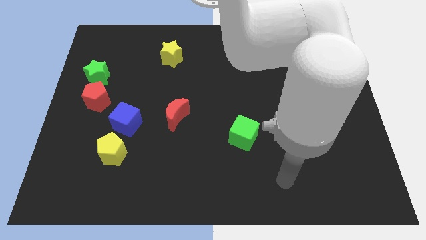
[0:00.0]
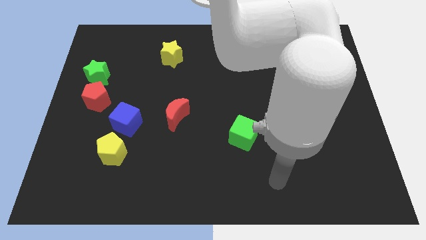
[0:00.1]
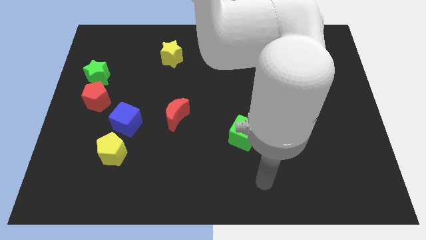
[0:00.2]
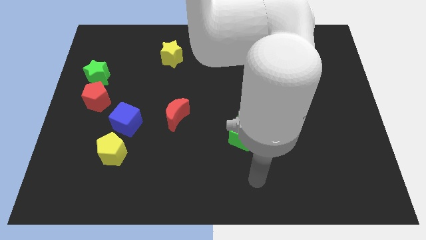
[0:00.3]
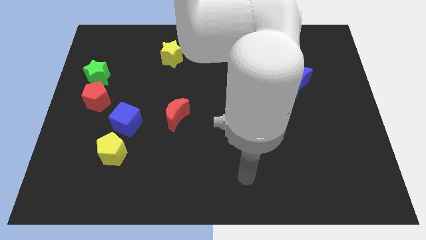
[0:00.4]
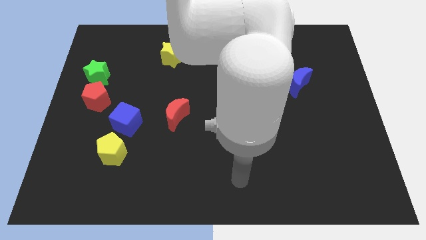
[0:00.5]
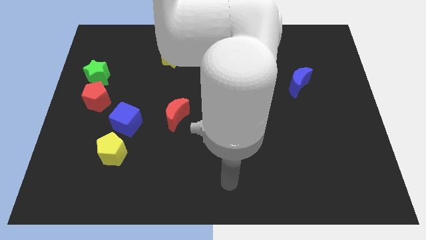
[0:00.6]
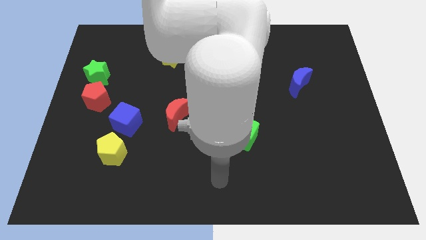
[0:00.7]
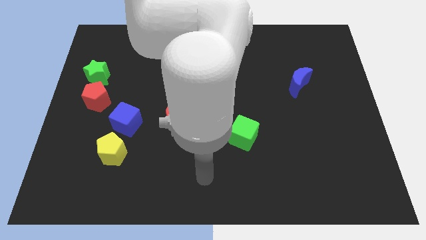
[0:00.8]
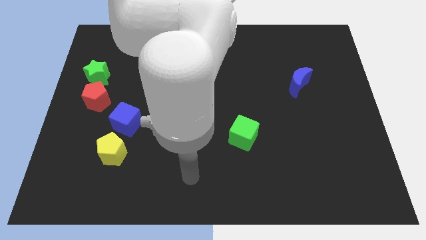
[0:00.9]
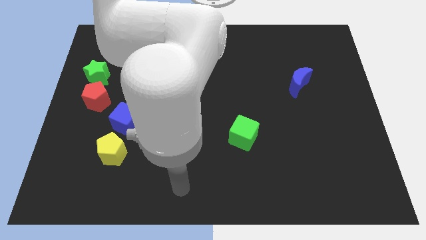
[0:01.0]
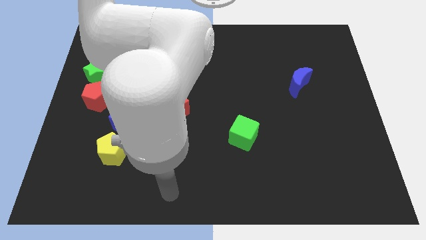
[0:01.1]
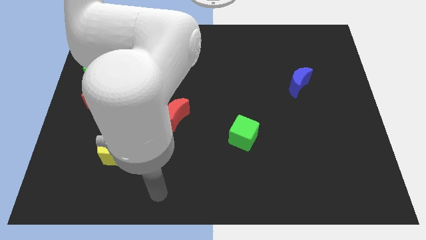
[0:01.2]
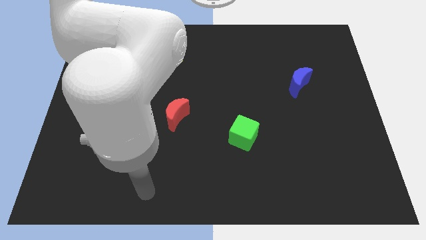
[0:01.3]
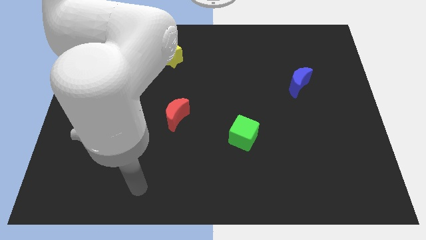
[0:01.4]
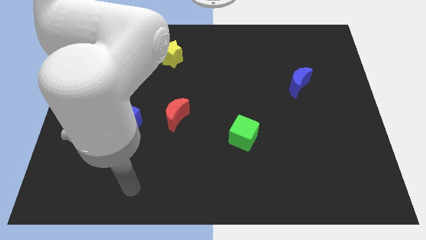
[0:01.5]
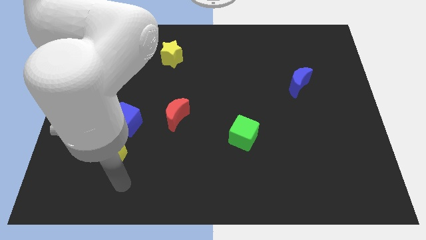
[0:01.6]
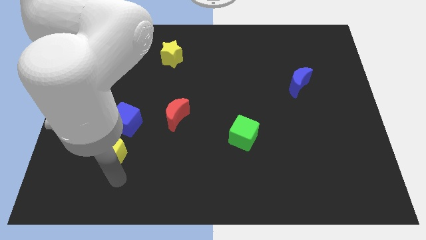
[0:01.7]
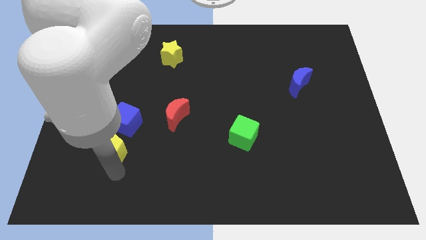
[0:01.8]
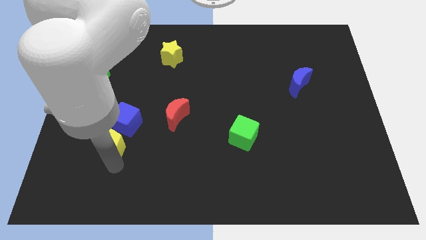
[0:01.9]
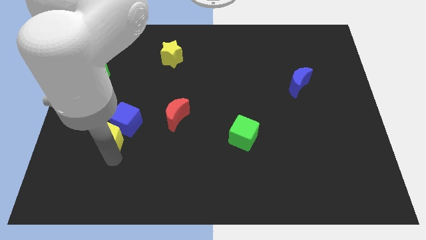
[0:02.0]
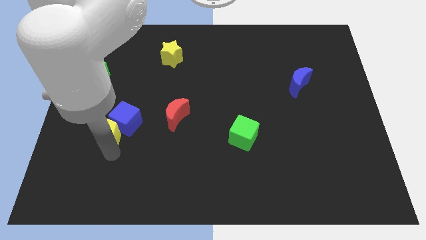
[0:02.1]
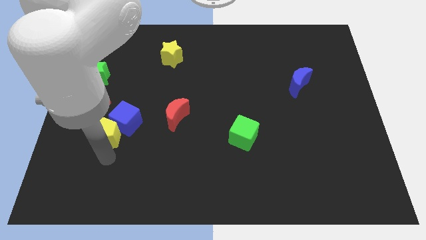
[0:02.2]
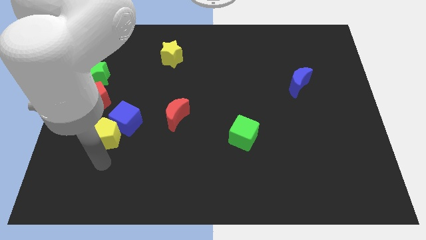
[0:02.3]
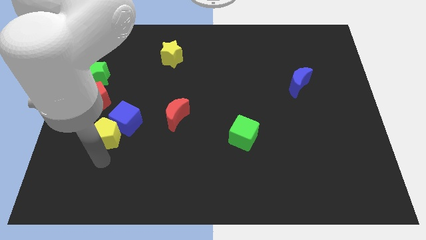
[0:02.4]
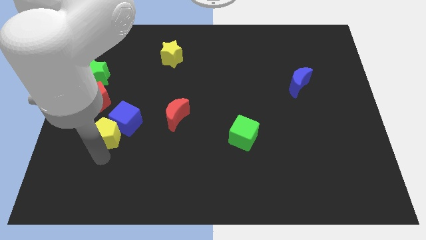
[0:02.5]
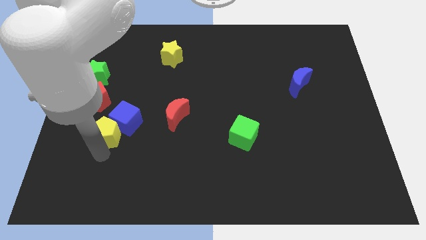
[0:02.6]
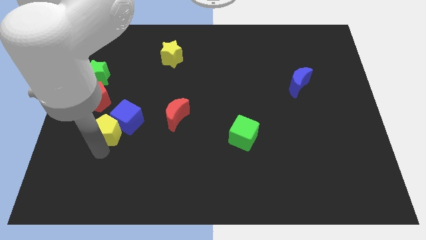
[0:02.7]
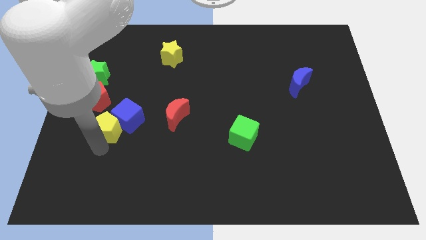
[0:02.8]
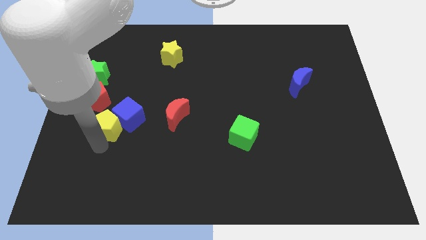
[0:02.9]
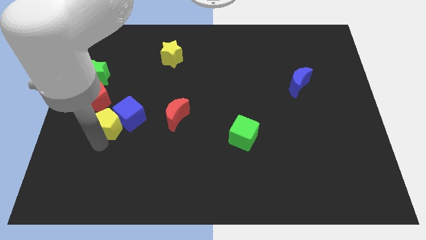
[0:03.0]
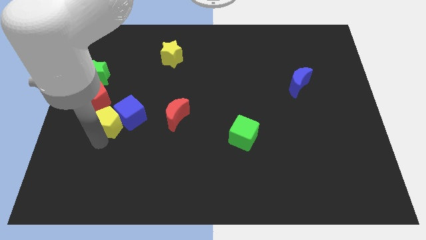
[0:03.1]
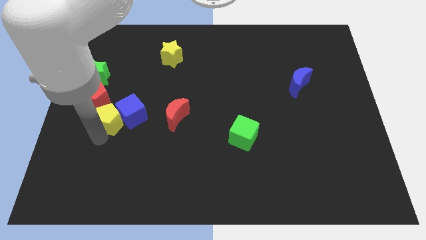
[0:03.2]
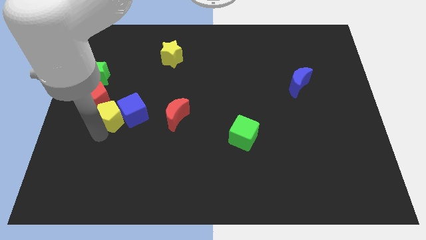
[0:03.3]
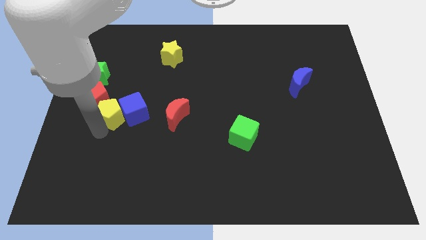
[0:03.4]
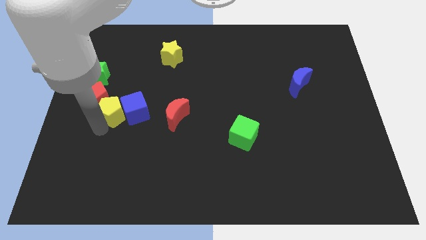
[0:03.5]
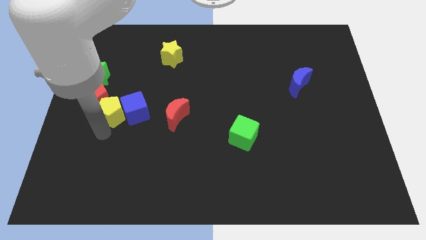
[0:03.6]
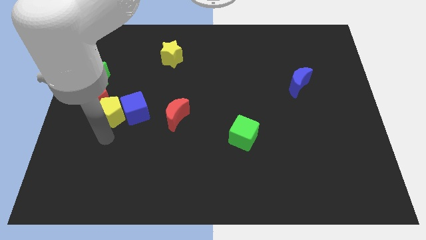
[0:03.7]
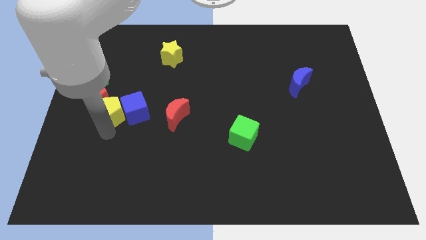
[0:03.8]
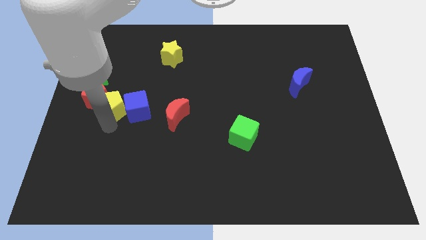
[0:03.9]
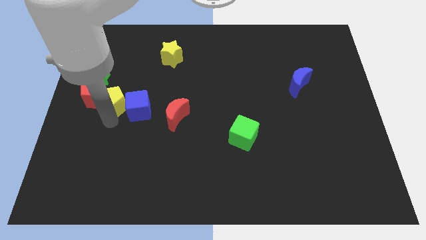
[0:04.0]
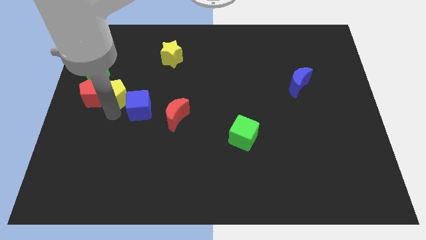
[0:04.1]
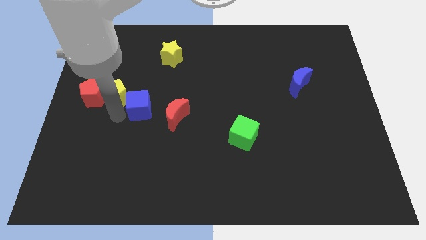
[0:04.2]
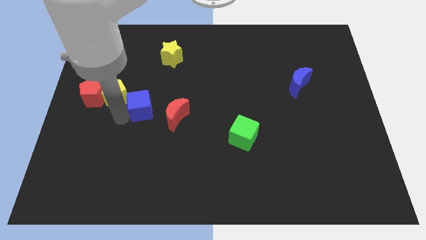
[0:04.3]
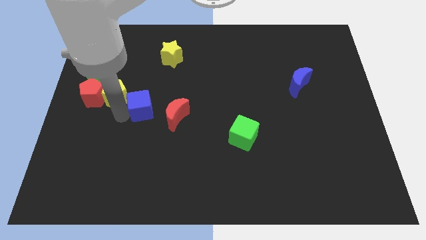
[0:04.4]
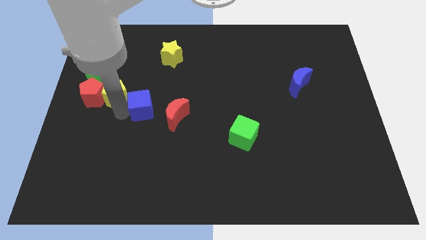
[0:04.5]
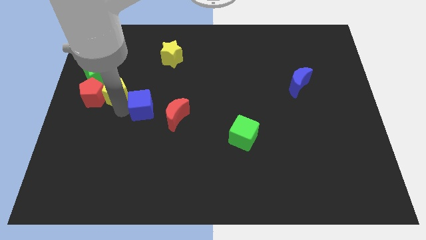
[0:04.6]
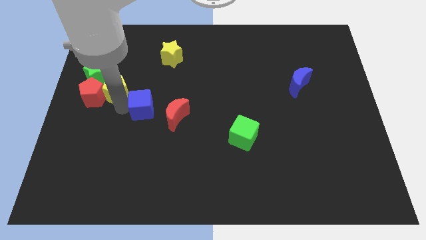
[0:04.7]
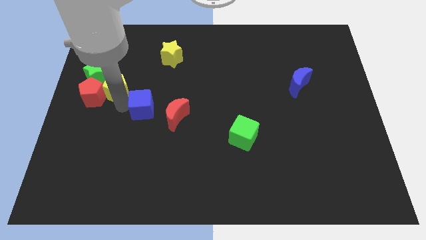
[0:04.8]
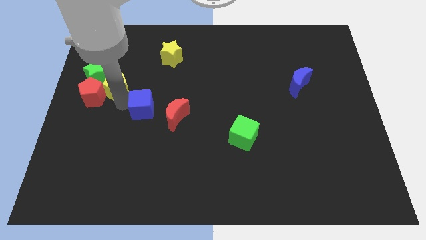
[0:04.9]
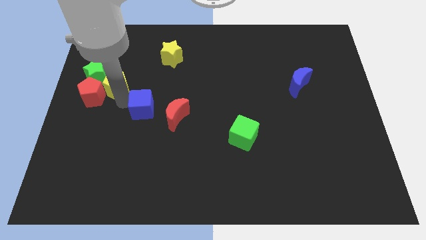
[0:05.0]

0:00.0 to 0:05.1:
slide the yellow pentagon to the green star

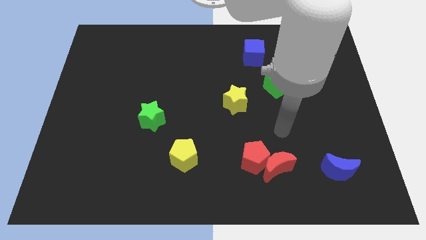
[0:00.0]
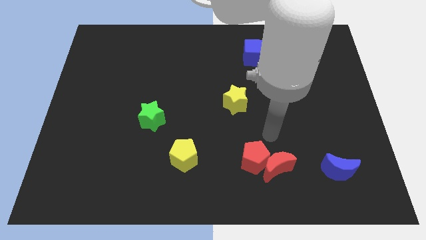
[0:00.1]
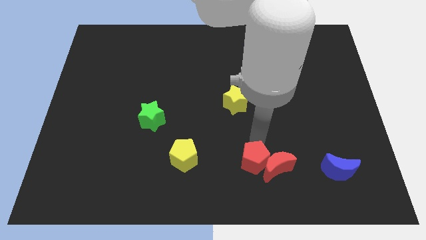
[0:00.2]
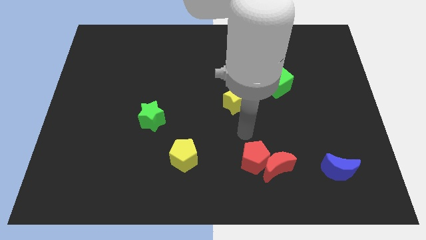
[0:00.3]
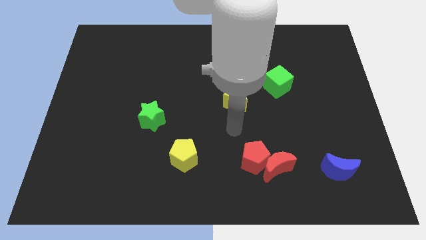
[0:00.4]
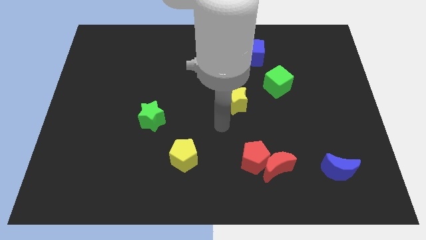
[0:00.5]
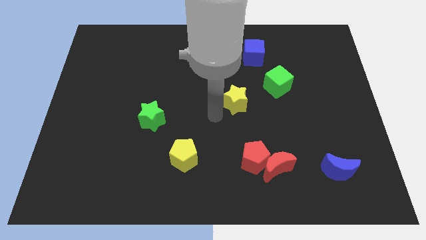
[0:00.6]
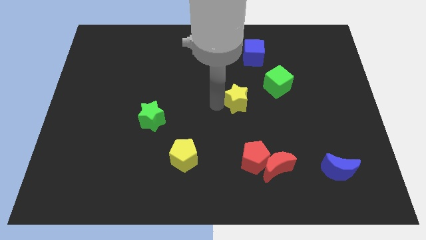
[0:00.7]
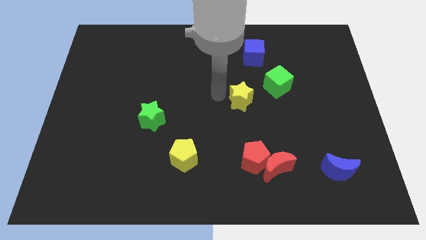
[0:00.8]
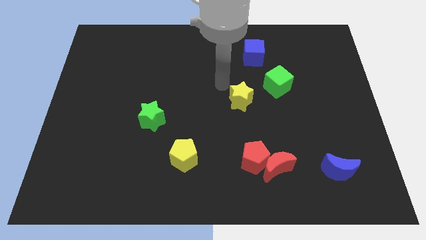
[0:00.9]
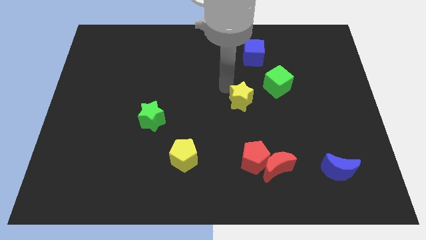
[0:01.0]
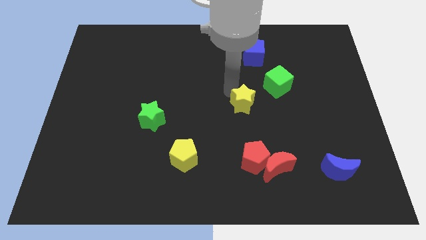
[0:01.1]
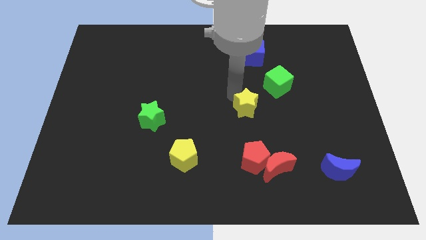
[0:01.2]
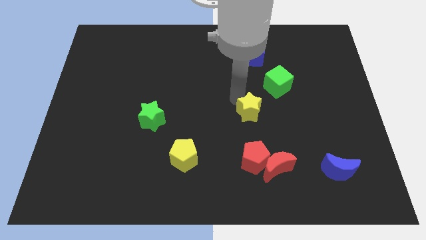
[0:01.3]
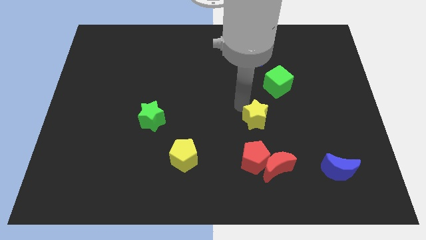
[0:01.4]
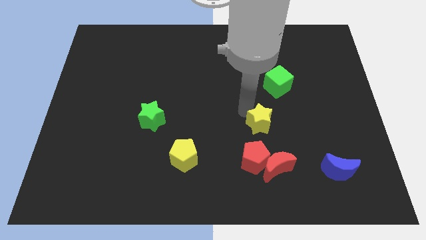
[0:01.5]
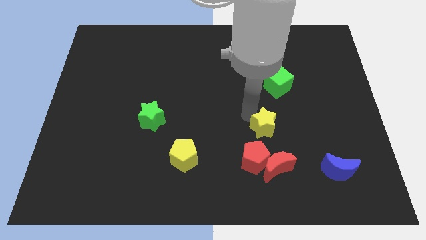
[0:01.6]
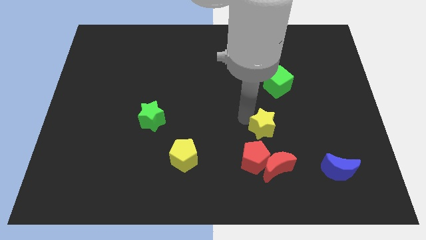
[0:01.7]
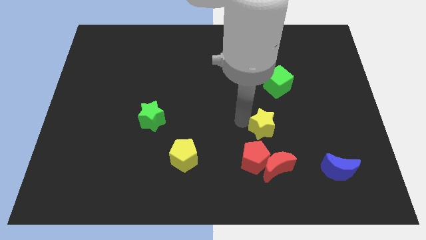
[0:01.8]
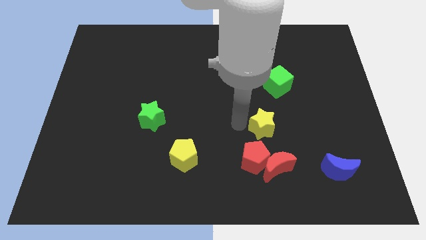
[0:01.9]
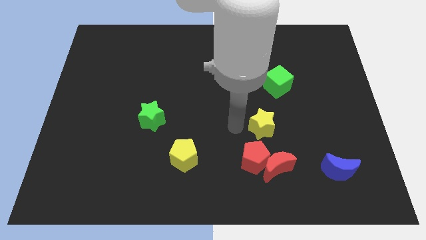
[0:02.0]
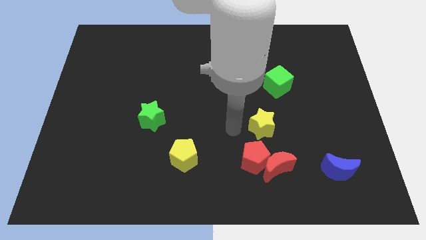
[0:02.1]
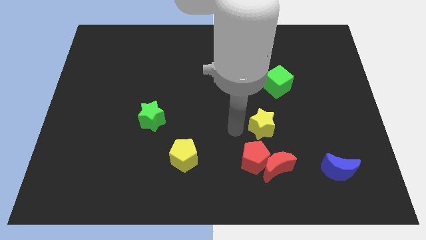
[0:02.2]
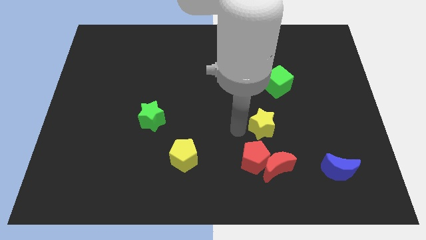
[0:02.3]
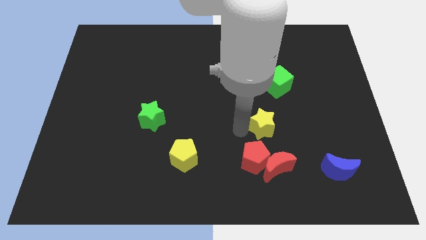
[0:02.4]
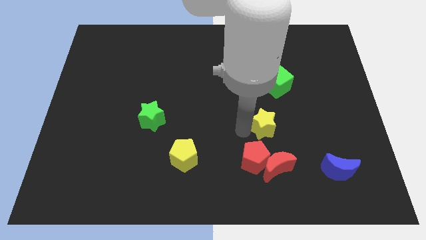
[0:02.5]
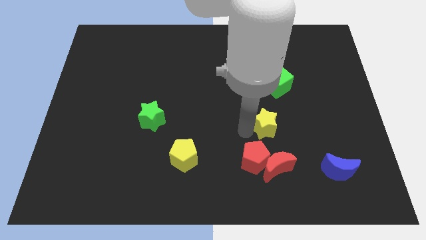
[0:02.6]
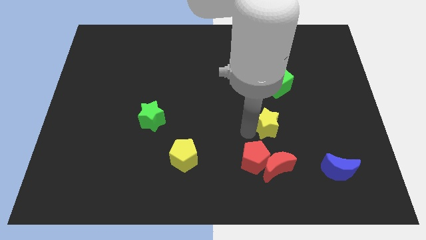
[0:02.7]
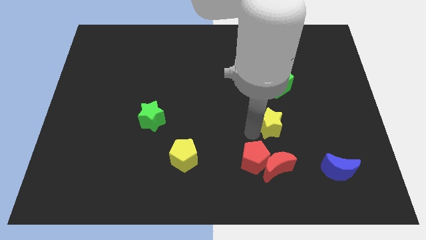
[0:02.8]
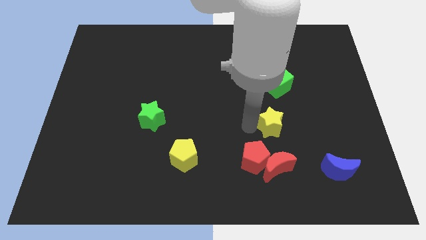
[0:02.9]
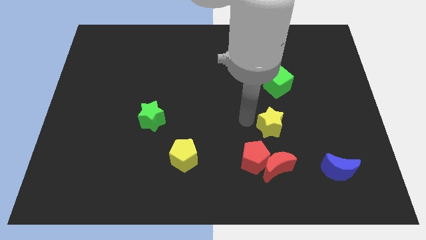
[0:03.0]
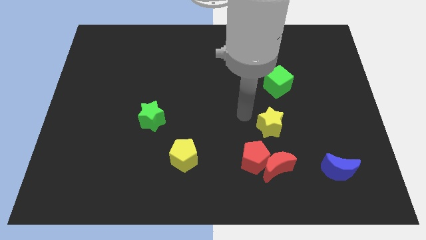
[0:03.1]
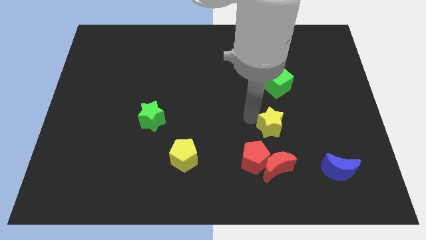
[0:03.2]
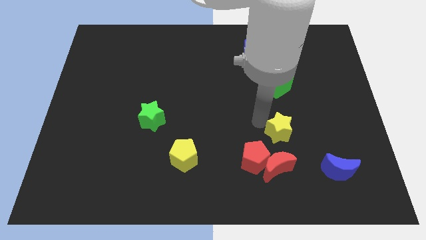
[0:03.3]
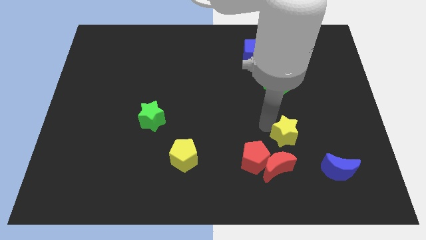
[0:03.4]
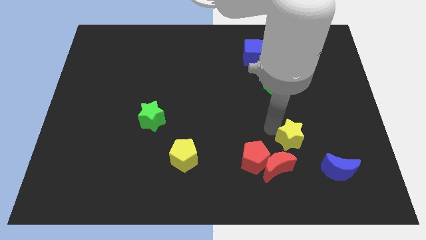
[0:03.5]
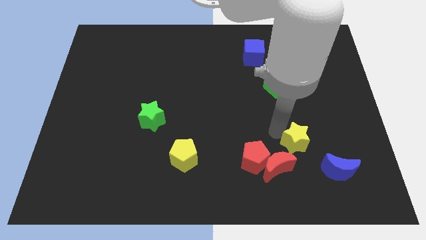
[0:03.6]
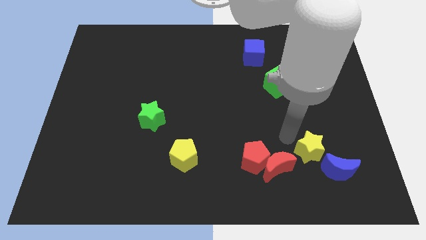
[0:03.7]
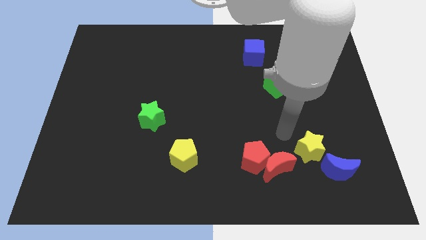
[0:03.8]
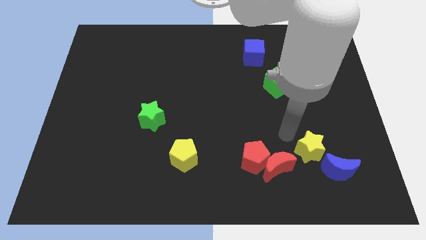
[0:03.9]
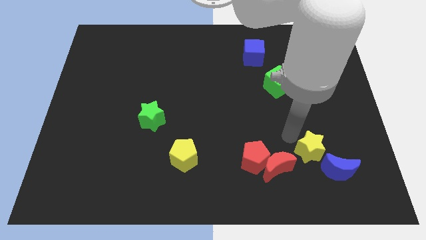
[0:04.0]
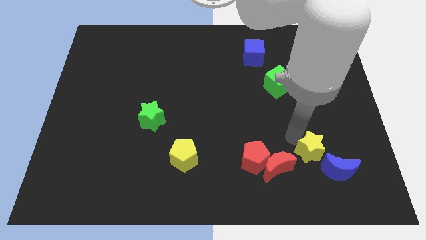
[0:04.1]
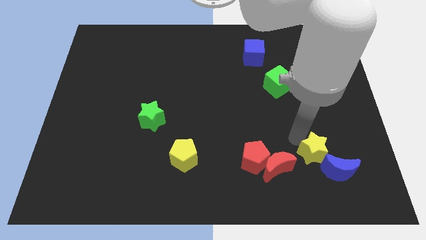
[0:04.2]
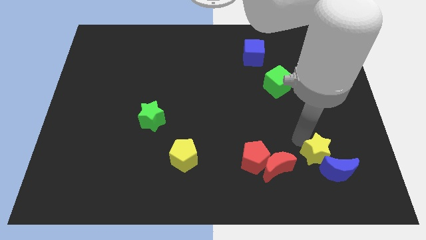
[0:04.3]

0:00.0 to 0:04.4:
push the yellow star next to the blue moon
